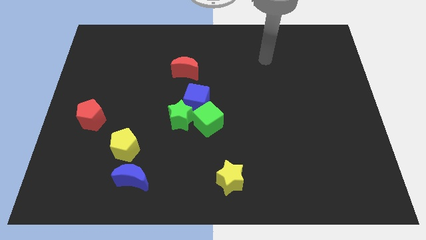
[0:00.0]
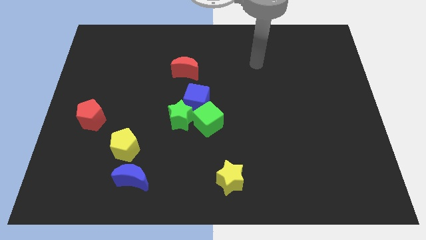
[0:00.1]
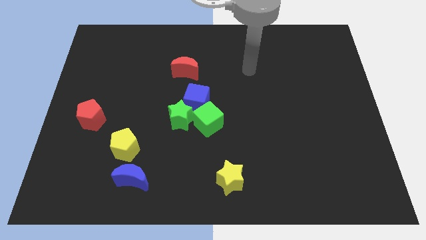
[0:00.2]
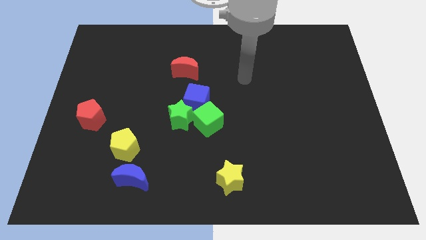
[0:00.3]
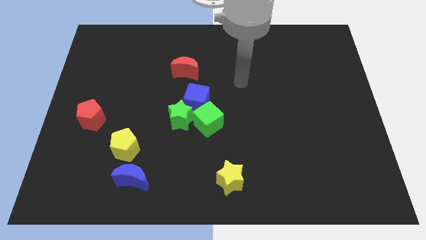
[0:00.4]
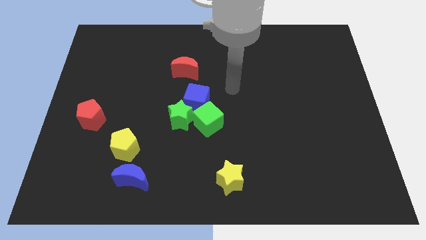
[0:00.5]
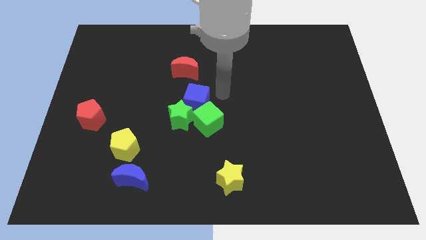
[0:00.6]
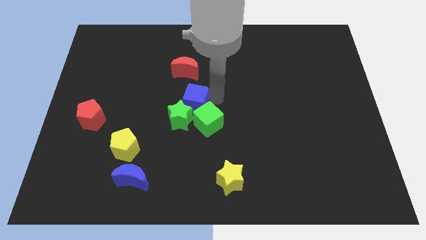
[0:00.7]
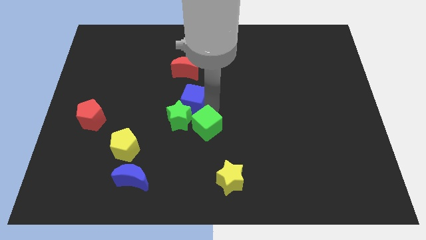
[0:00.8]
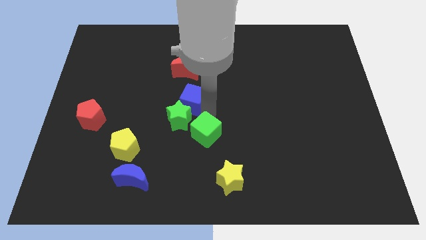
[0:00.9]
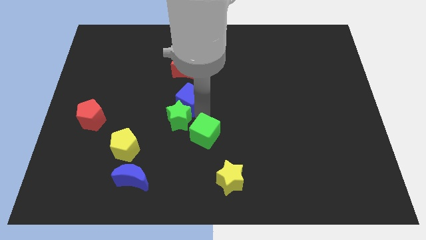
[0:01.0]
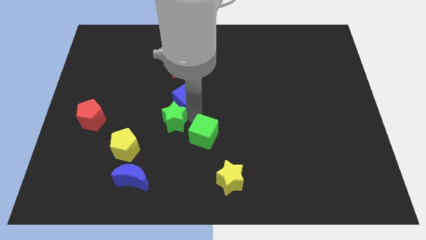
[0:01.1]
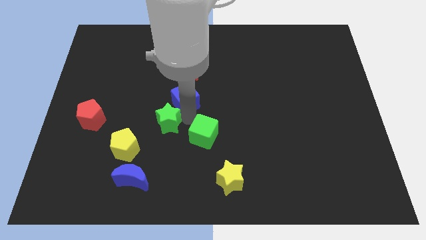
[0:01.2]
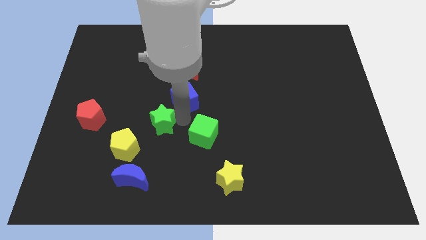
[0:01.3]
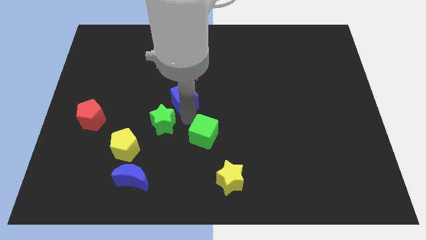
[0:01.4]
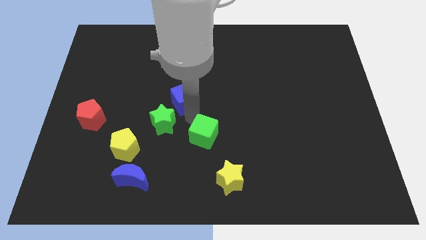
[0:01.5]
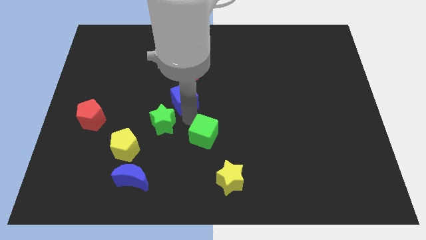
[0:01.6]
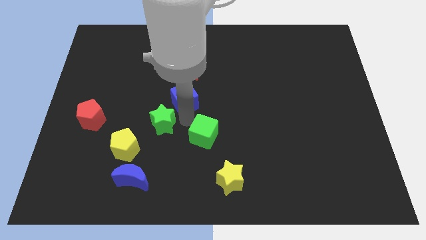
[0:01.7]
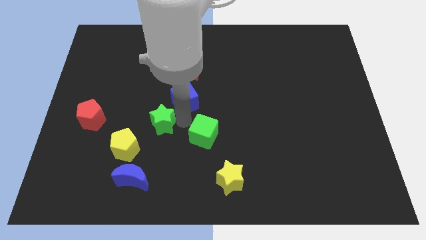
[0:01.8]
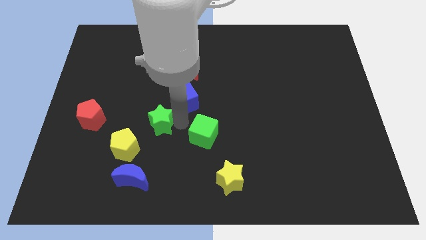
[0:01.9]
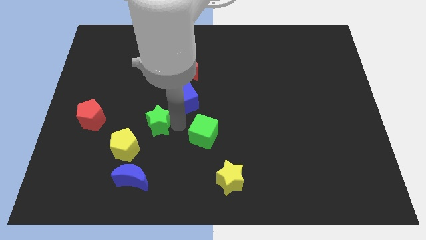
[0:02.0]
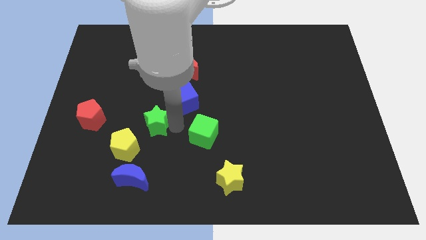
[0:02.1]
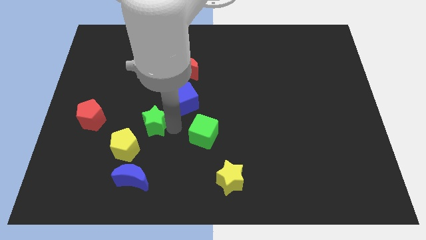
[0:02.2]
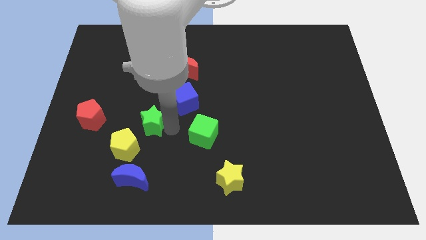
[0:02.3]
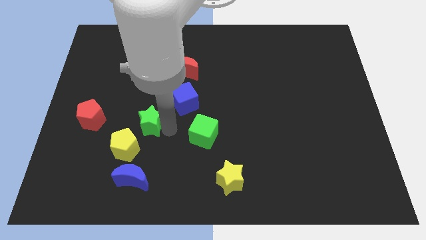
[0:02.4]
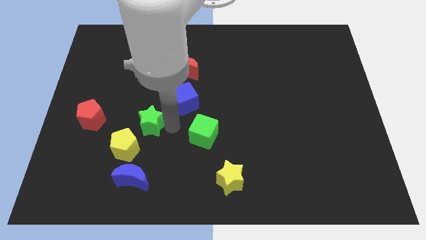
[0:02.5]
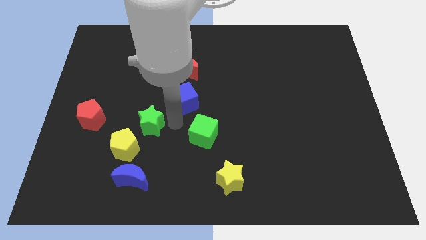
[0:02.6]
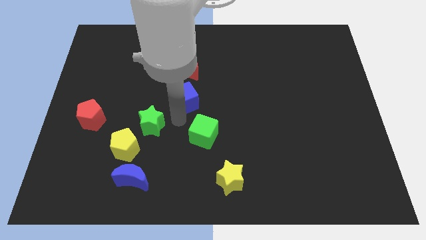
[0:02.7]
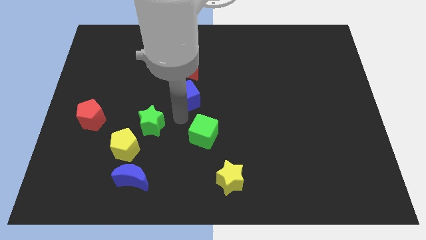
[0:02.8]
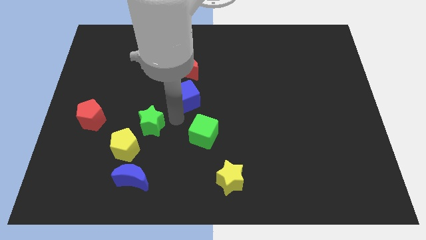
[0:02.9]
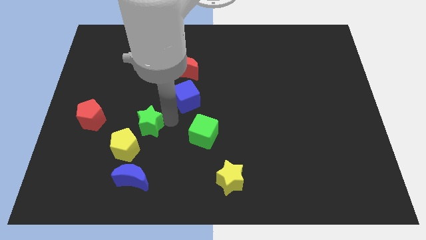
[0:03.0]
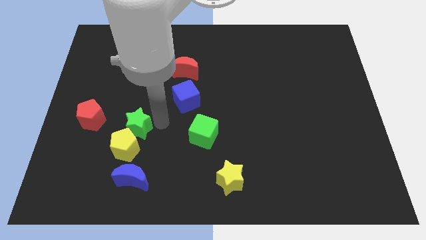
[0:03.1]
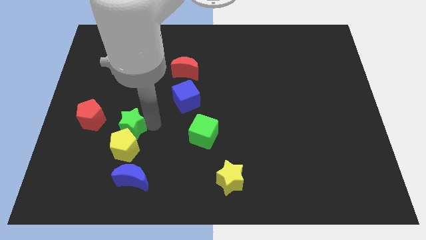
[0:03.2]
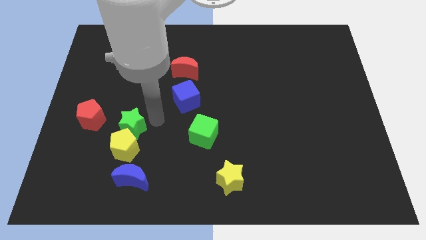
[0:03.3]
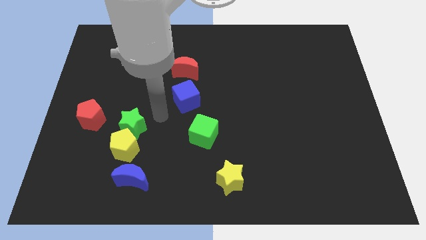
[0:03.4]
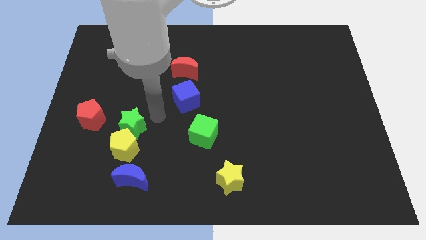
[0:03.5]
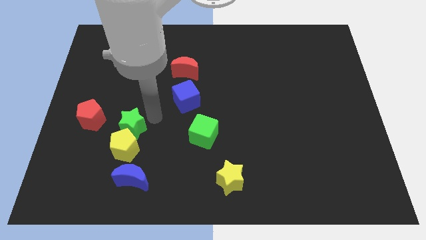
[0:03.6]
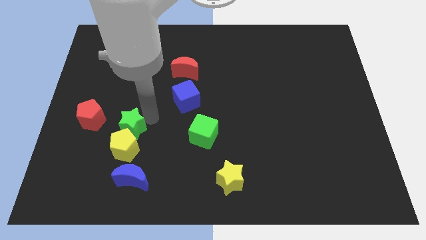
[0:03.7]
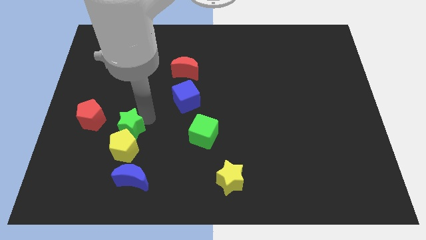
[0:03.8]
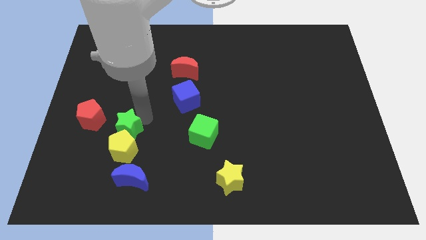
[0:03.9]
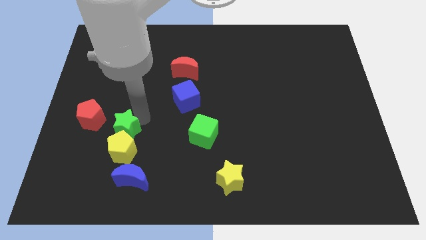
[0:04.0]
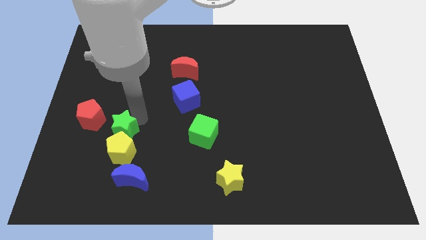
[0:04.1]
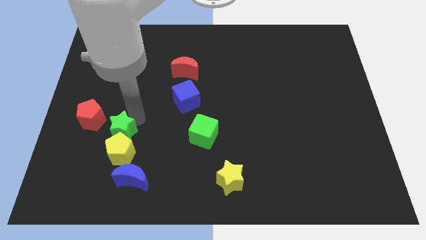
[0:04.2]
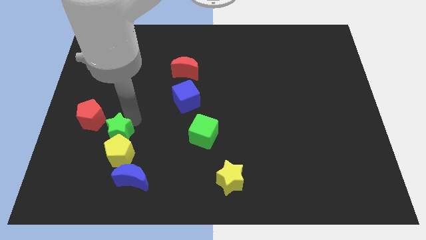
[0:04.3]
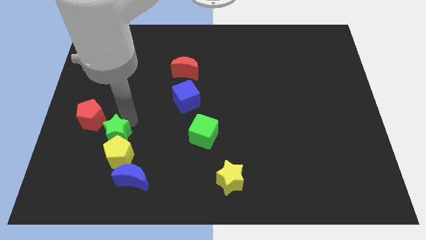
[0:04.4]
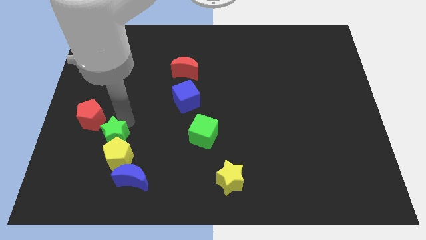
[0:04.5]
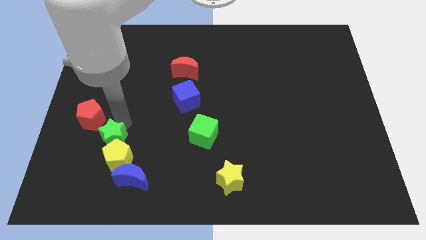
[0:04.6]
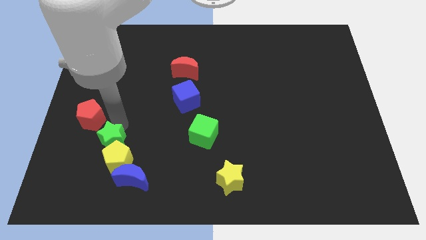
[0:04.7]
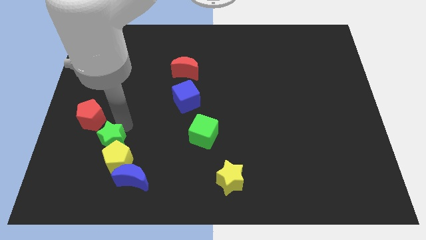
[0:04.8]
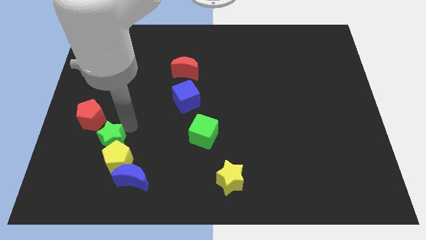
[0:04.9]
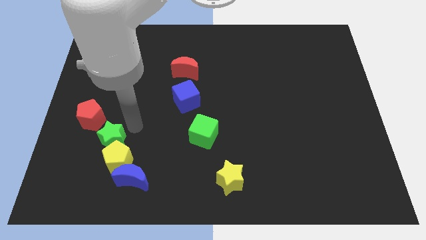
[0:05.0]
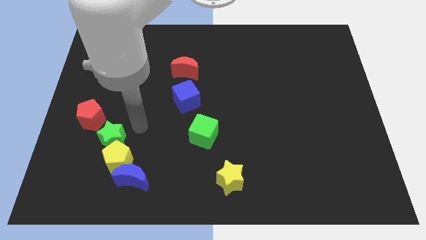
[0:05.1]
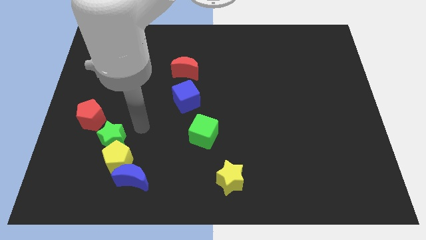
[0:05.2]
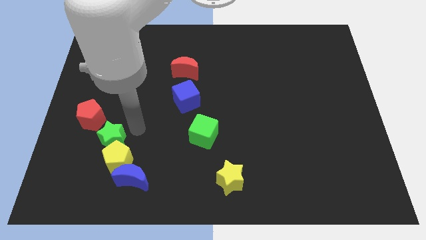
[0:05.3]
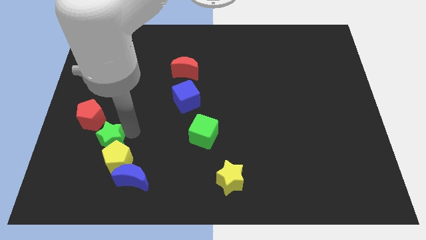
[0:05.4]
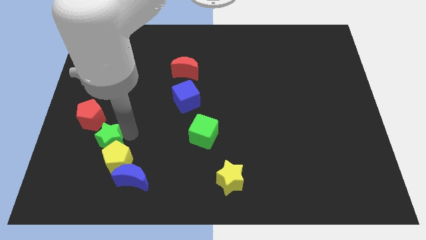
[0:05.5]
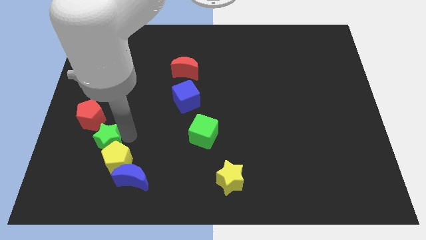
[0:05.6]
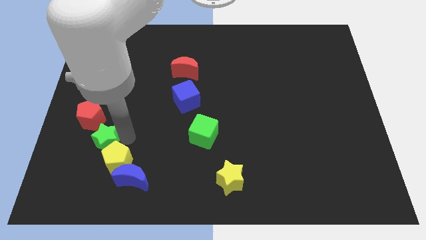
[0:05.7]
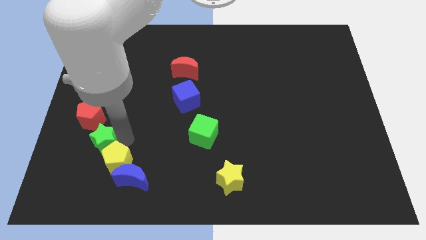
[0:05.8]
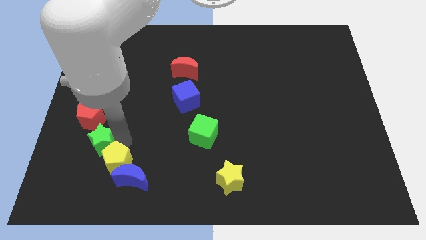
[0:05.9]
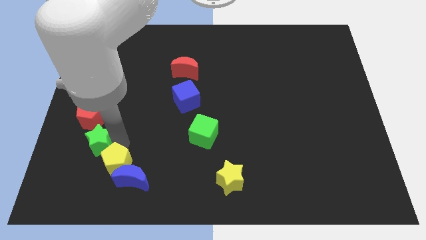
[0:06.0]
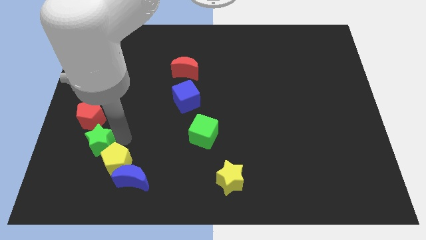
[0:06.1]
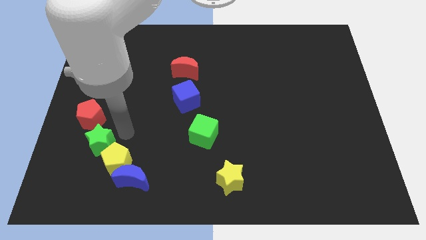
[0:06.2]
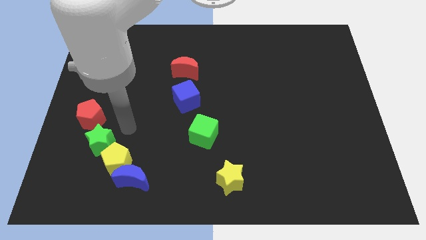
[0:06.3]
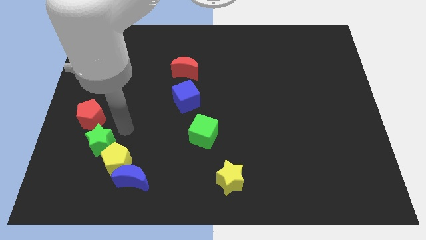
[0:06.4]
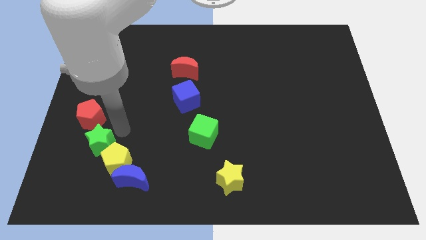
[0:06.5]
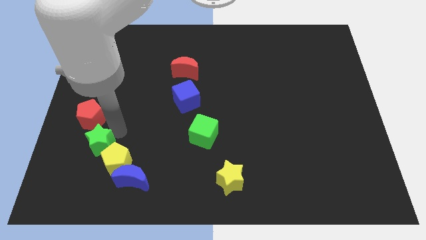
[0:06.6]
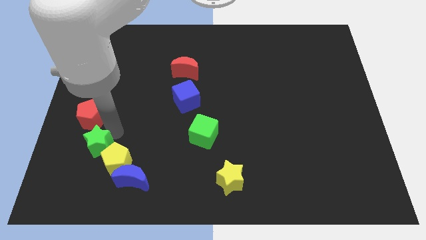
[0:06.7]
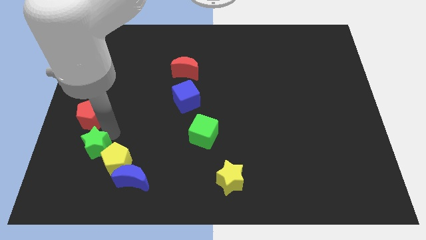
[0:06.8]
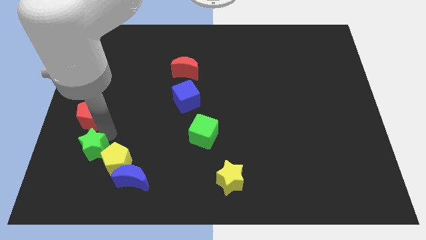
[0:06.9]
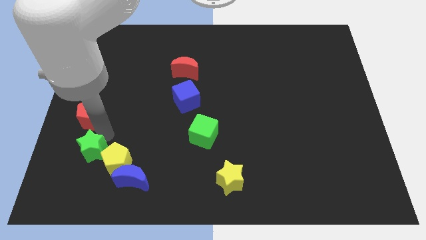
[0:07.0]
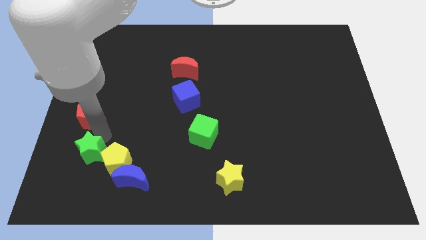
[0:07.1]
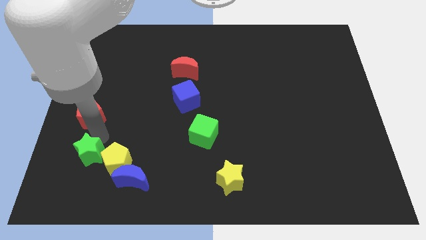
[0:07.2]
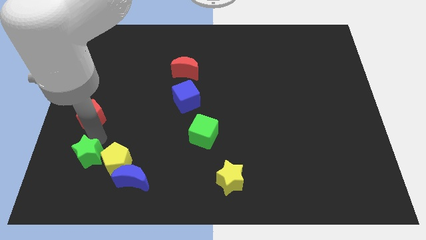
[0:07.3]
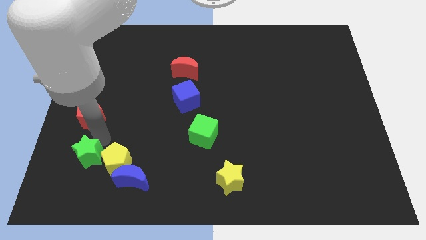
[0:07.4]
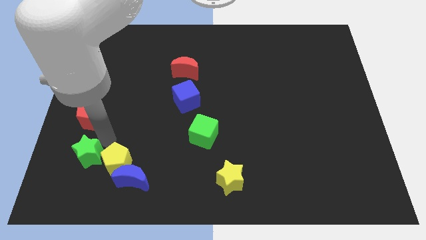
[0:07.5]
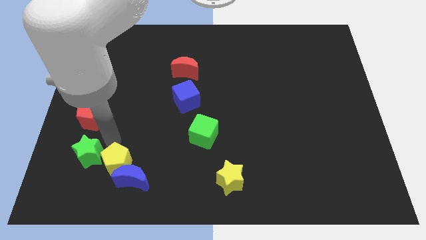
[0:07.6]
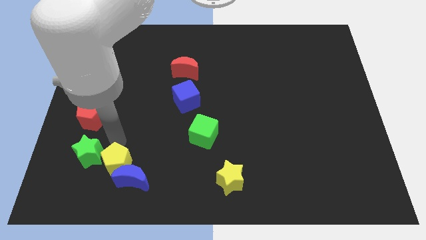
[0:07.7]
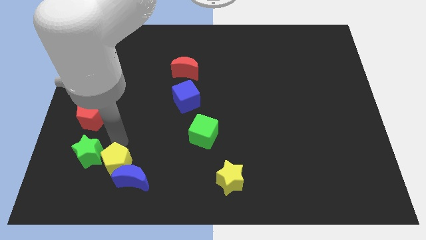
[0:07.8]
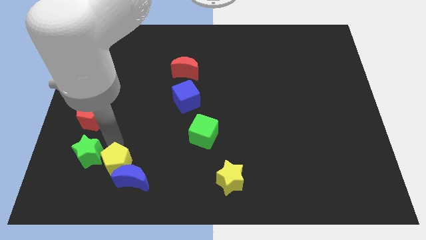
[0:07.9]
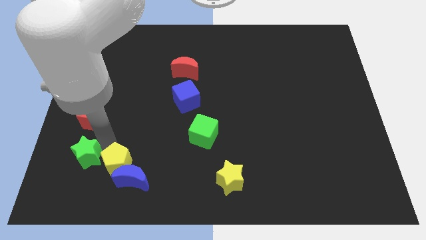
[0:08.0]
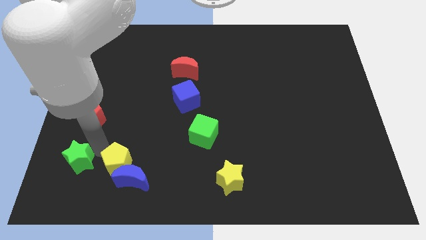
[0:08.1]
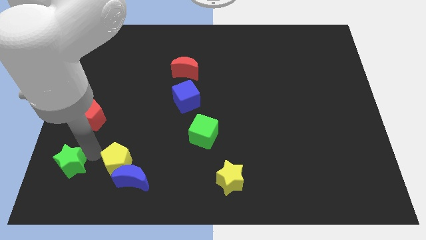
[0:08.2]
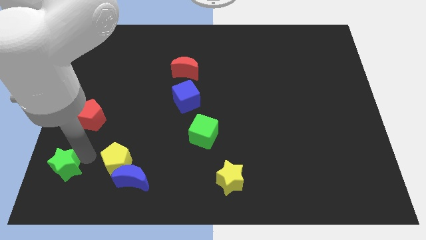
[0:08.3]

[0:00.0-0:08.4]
put the green star to the bottom left of the board
